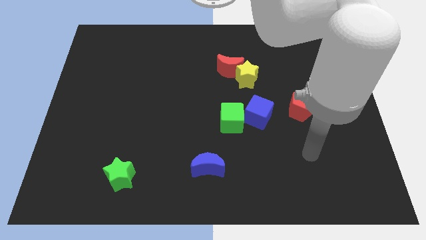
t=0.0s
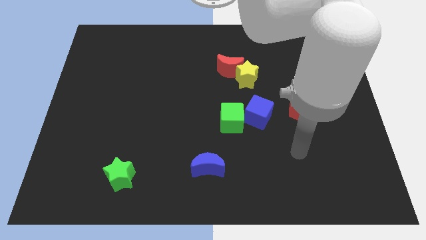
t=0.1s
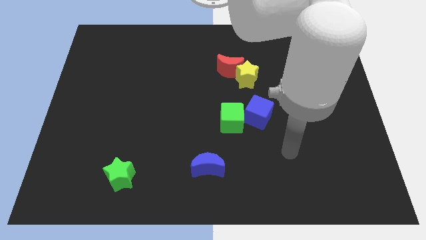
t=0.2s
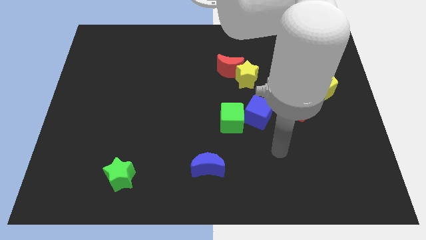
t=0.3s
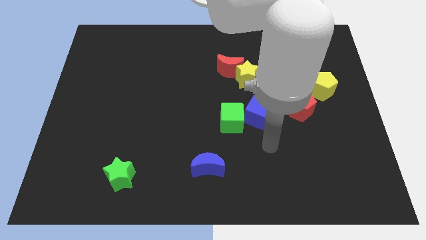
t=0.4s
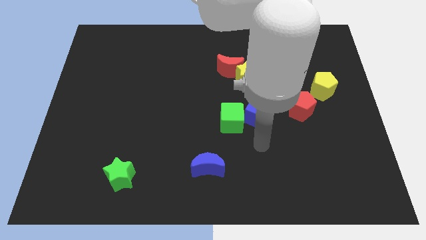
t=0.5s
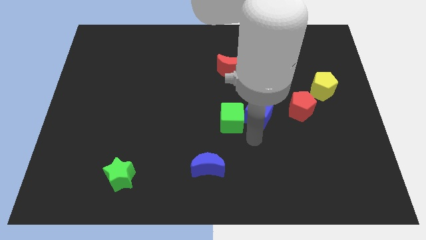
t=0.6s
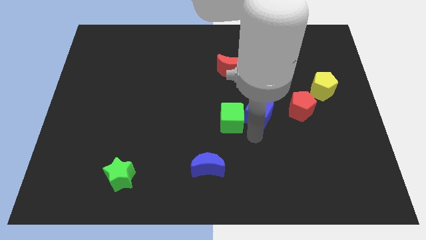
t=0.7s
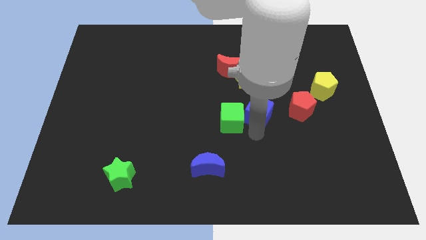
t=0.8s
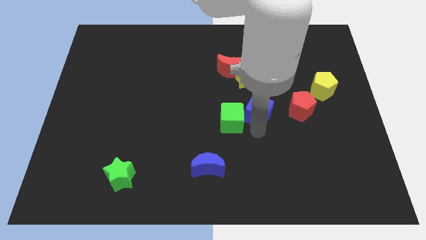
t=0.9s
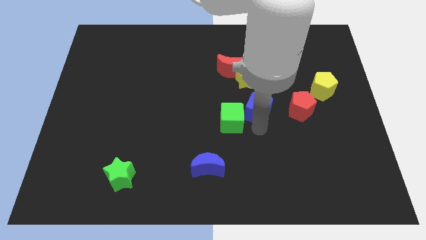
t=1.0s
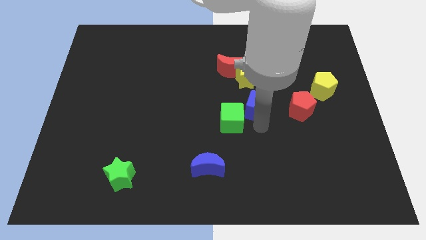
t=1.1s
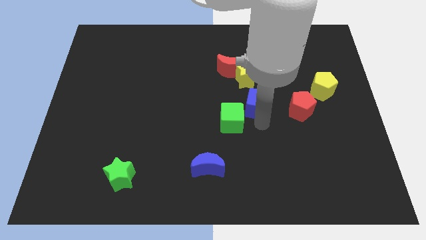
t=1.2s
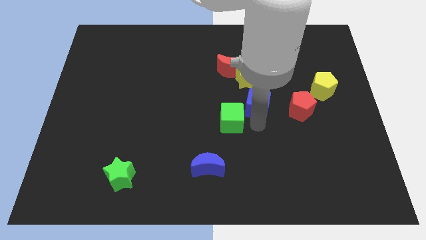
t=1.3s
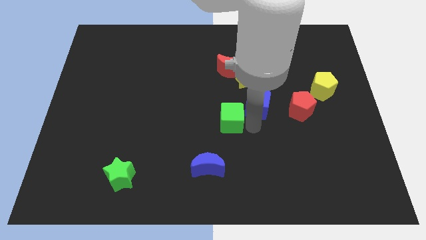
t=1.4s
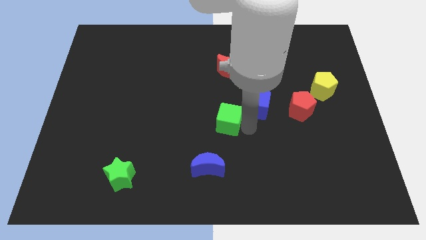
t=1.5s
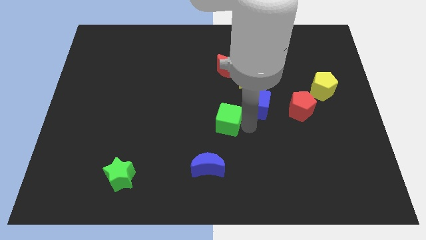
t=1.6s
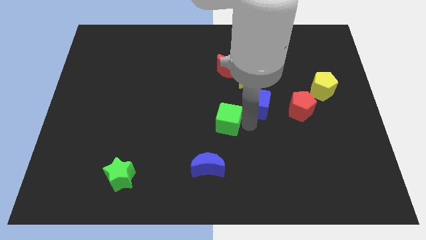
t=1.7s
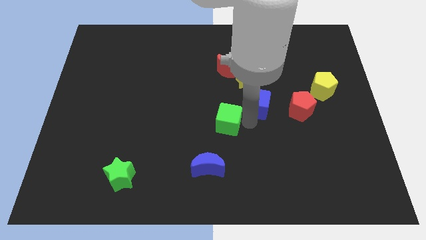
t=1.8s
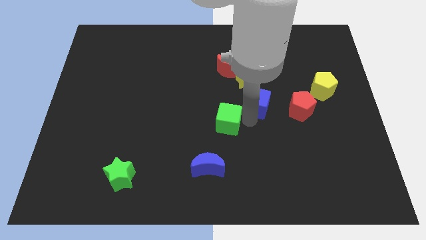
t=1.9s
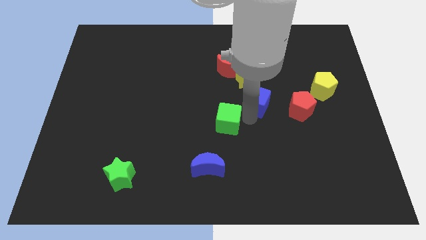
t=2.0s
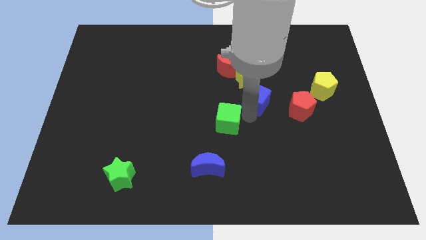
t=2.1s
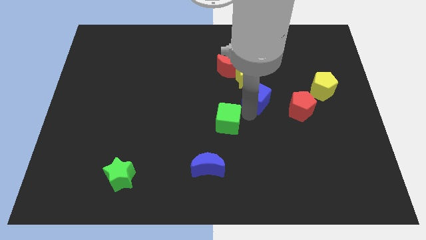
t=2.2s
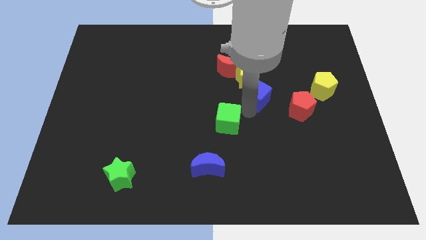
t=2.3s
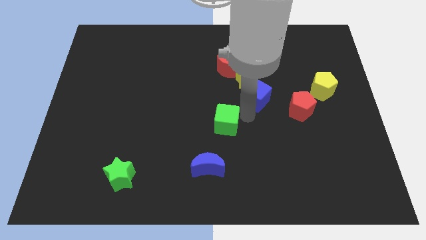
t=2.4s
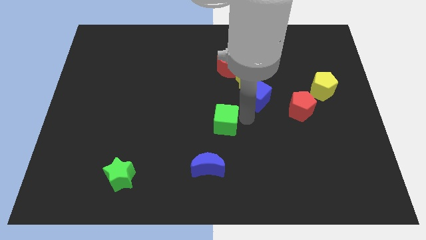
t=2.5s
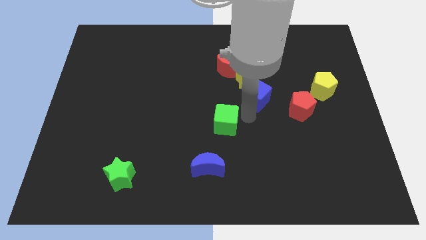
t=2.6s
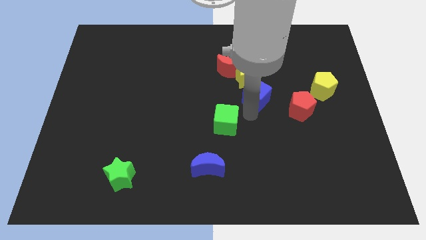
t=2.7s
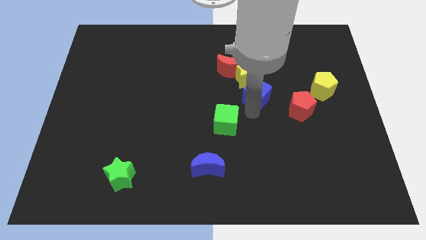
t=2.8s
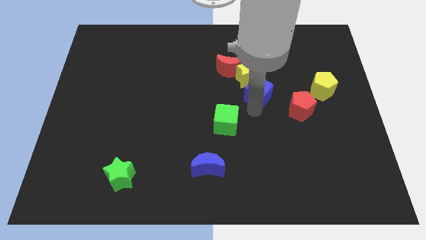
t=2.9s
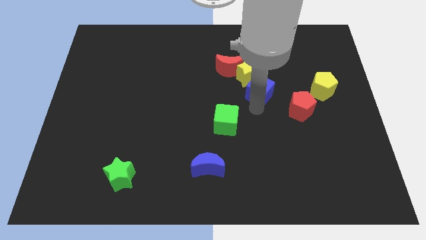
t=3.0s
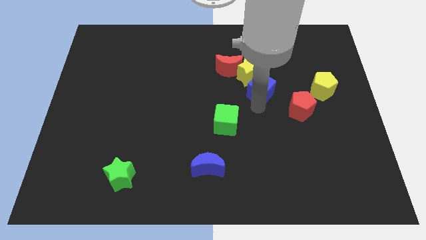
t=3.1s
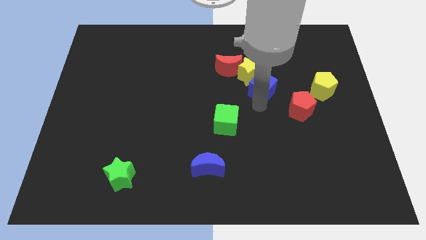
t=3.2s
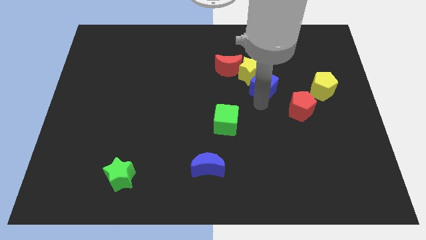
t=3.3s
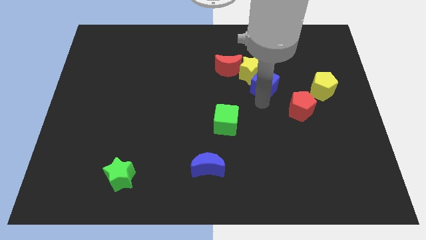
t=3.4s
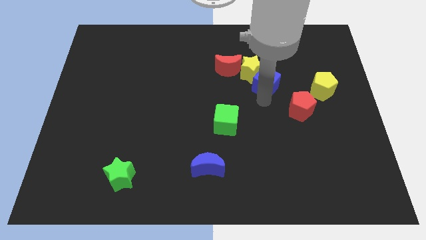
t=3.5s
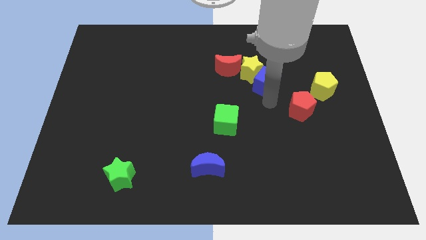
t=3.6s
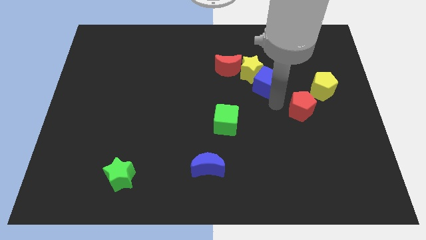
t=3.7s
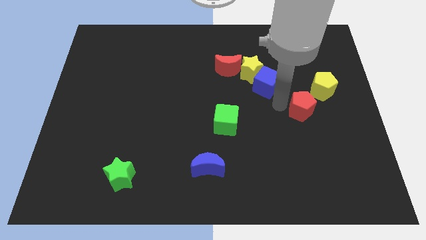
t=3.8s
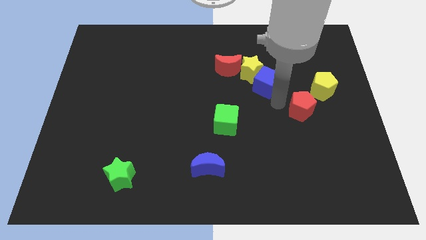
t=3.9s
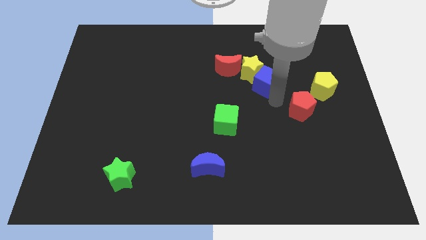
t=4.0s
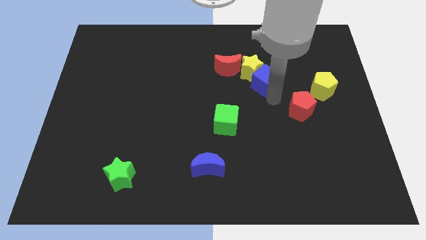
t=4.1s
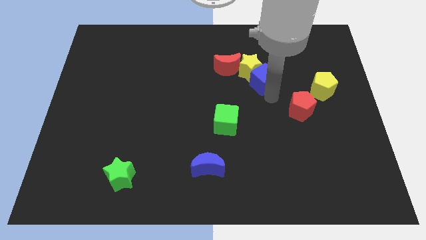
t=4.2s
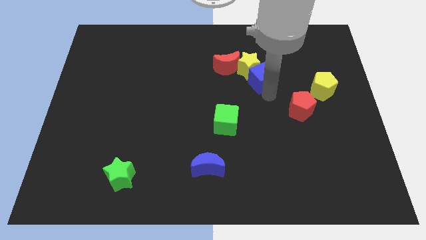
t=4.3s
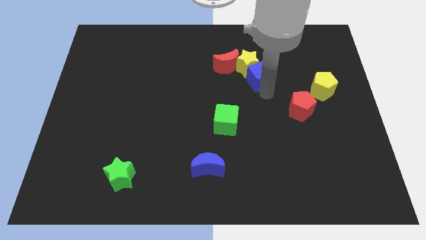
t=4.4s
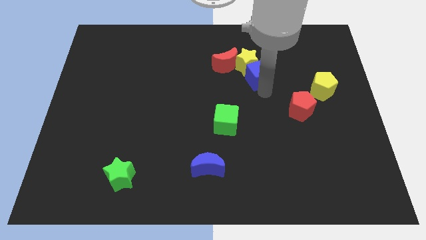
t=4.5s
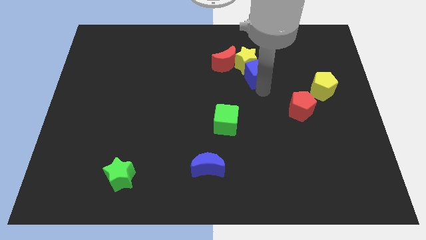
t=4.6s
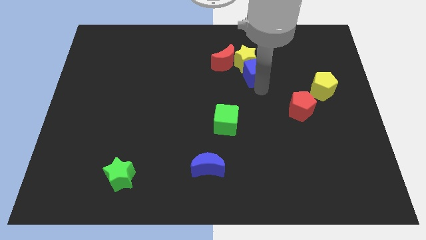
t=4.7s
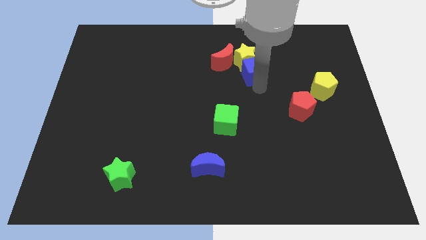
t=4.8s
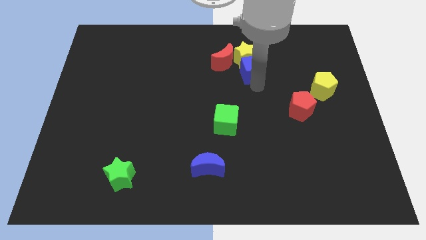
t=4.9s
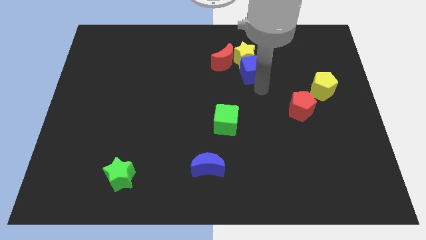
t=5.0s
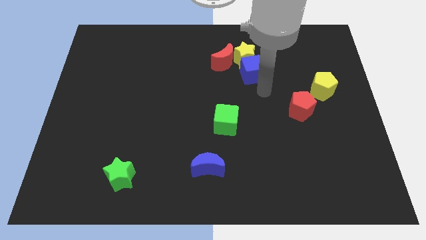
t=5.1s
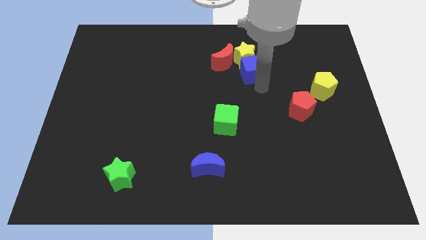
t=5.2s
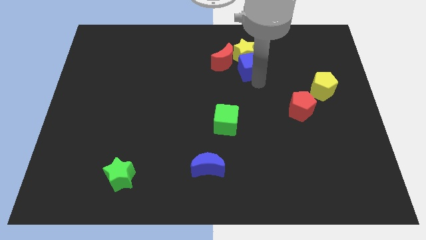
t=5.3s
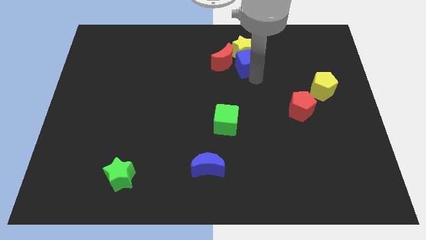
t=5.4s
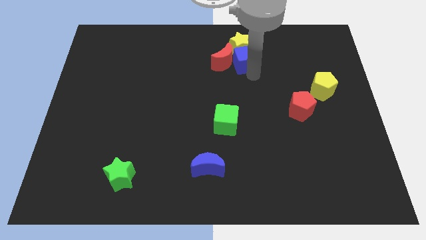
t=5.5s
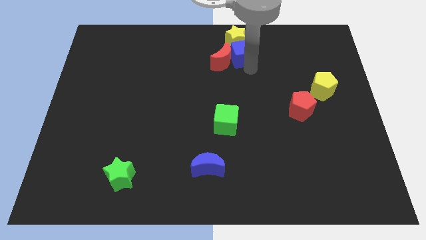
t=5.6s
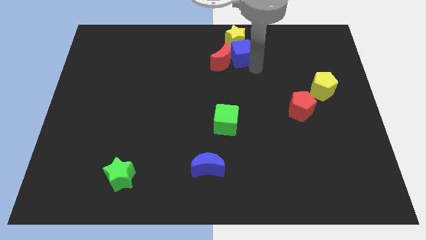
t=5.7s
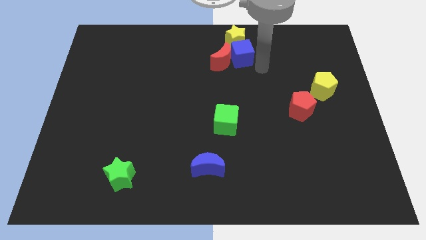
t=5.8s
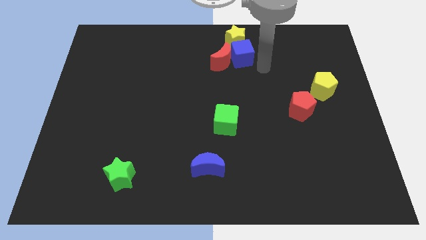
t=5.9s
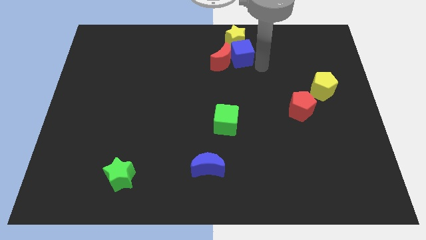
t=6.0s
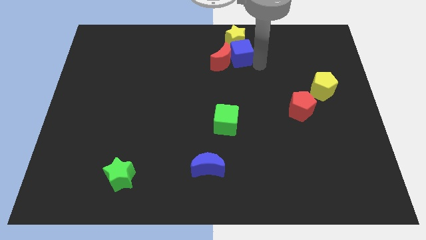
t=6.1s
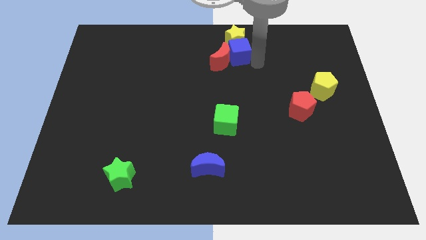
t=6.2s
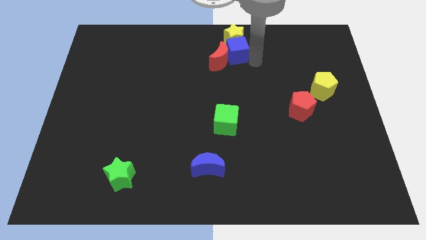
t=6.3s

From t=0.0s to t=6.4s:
move the blue cube to the towards your base
